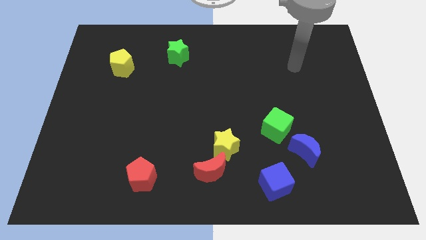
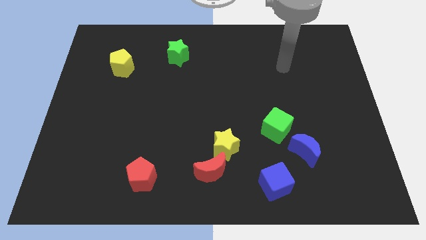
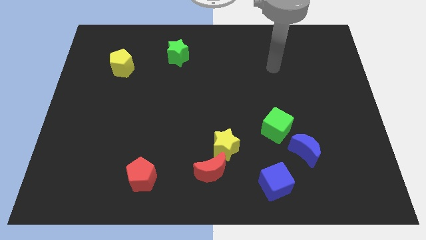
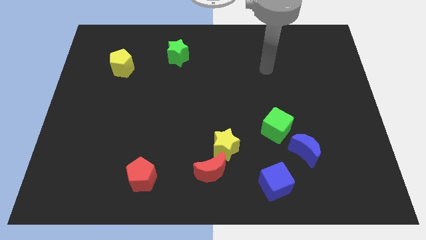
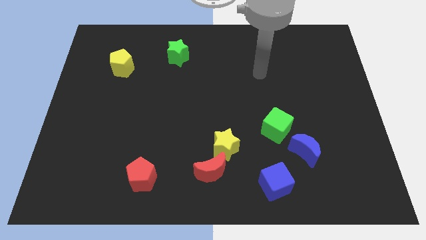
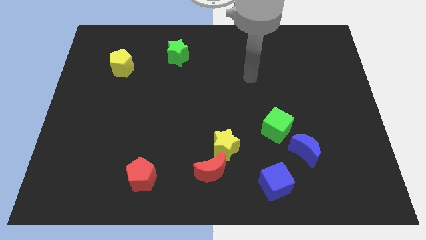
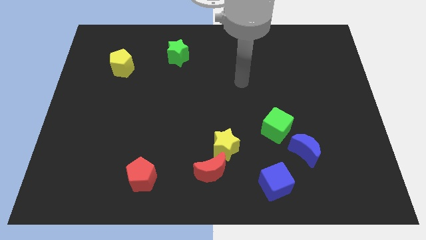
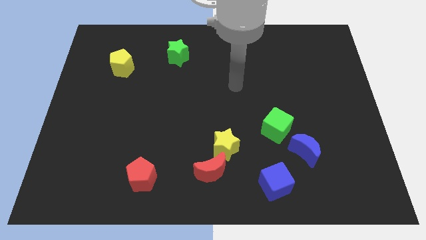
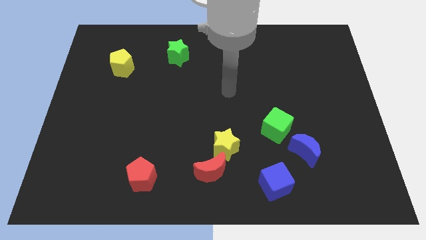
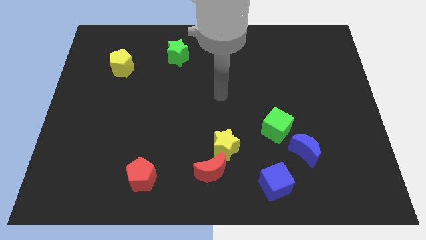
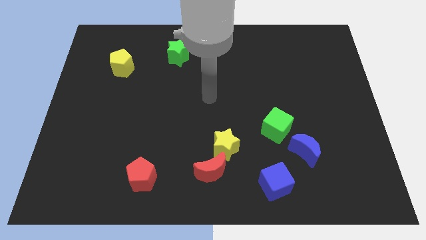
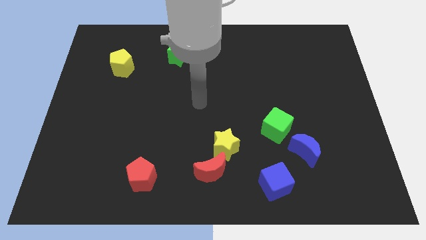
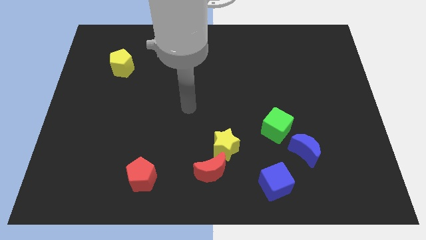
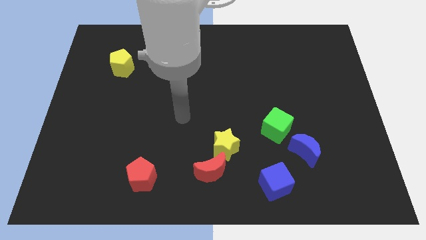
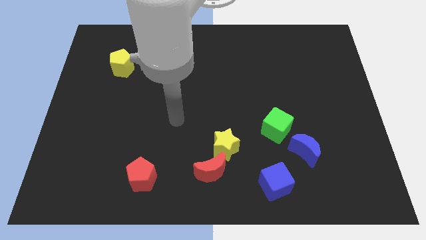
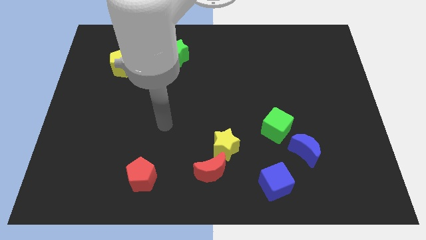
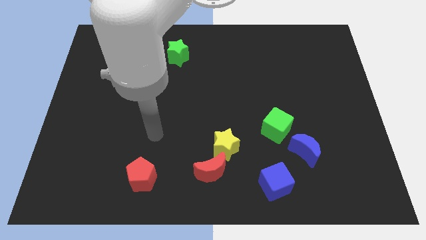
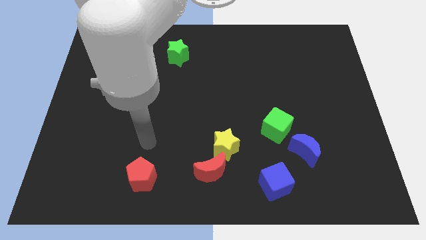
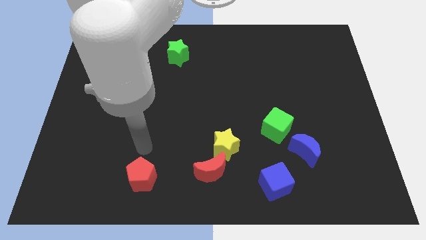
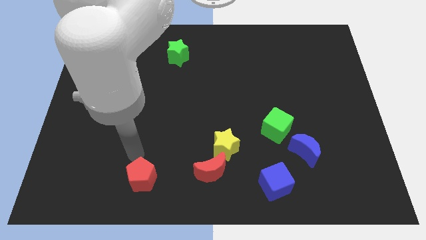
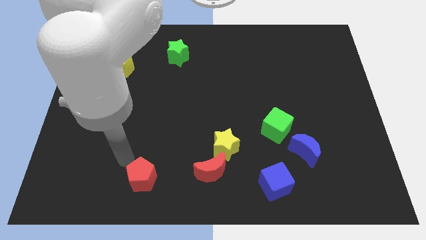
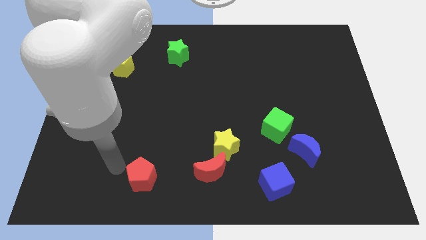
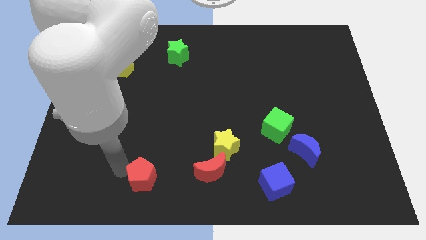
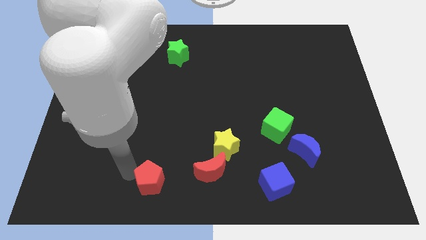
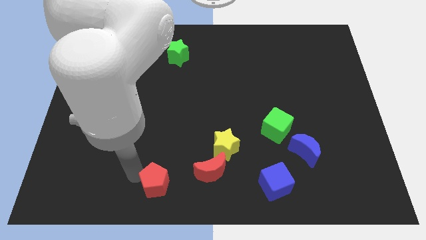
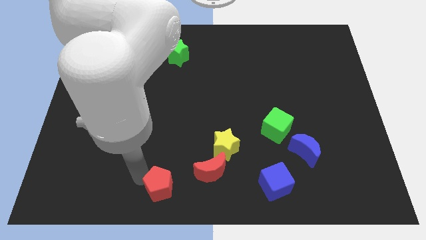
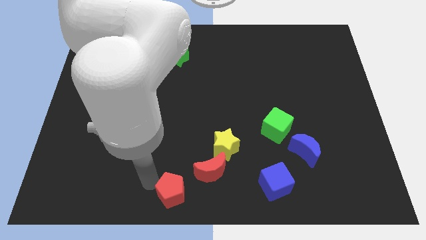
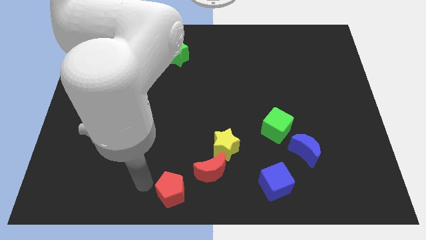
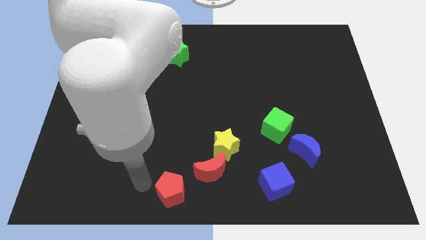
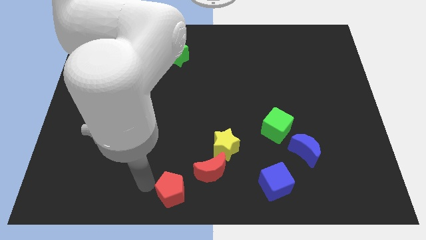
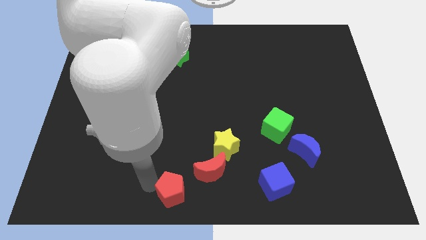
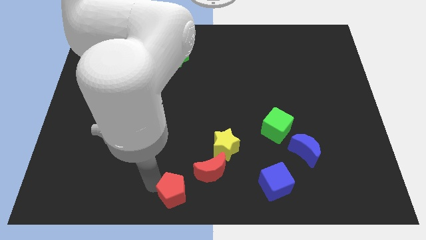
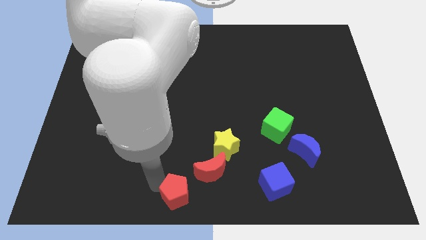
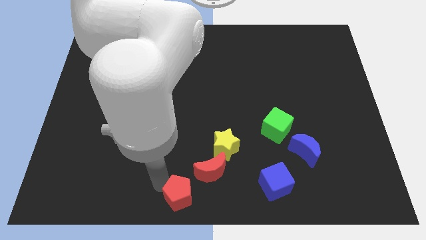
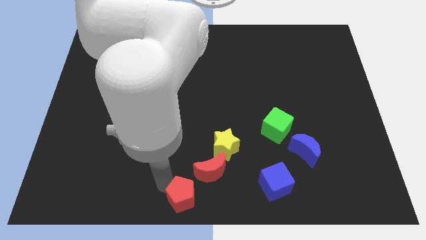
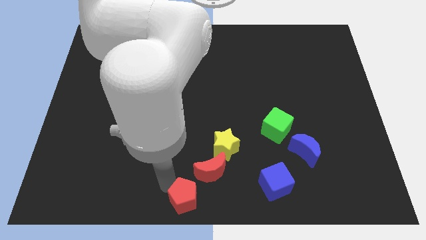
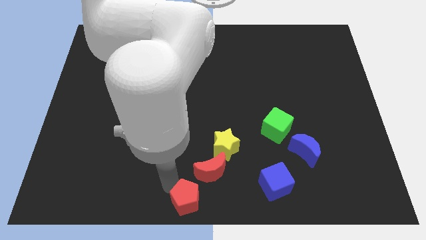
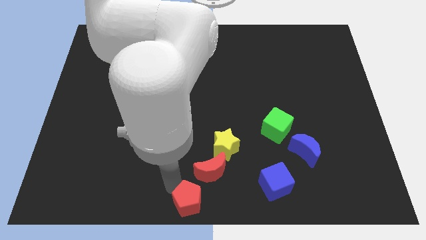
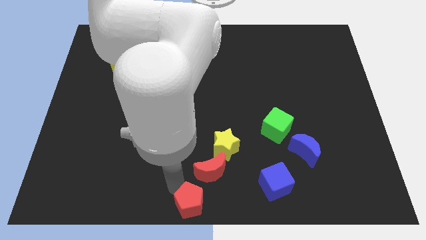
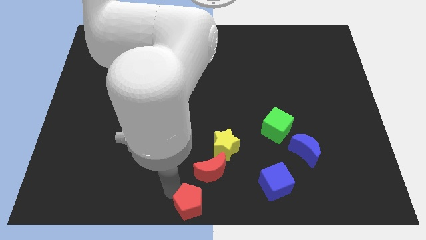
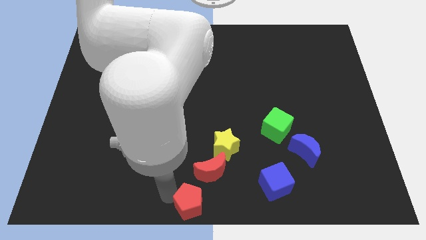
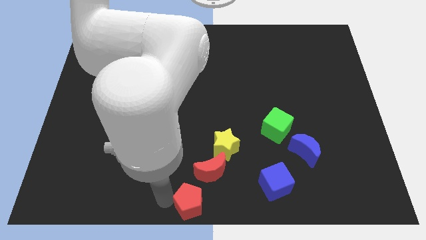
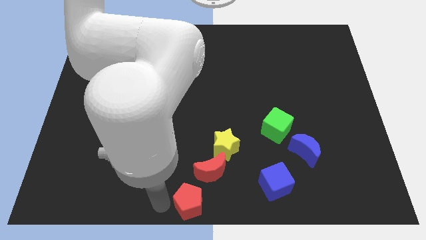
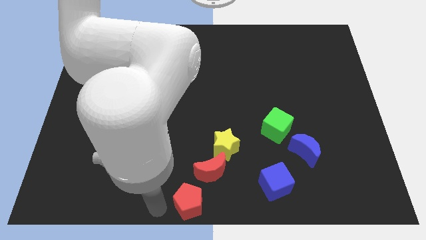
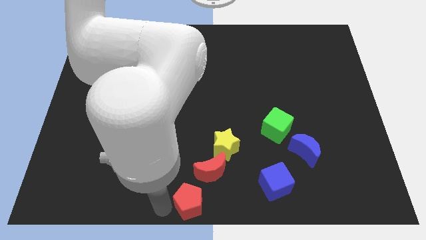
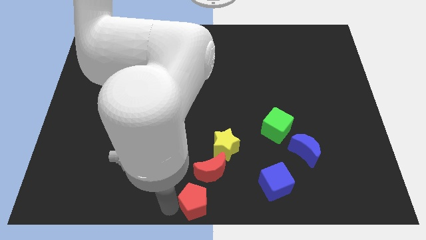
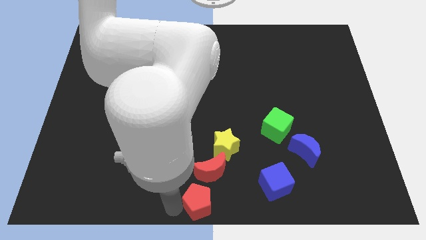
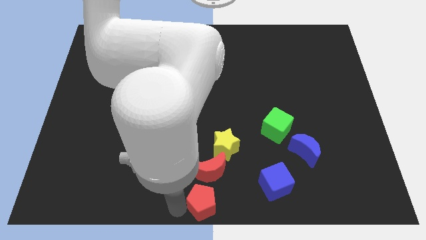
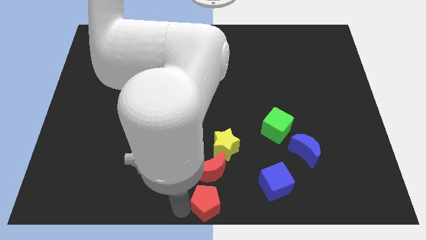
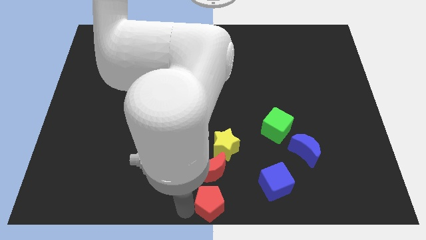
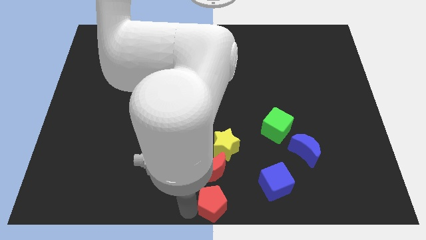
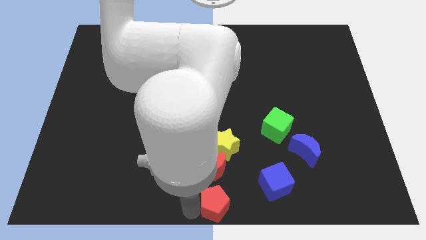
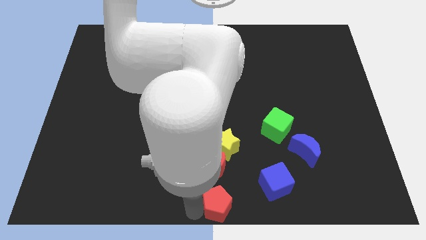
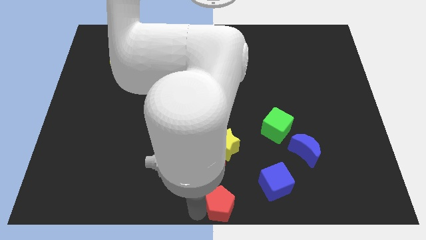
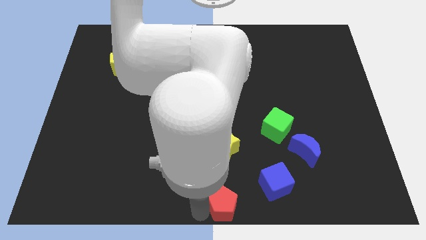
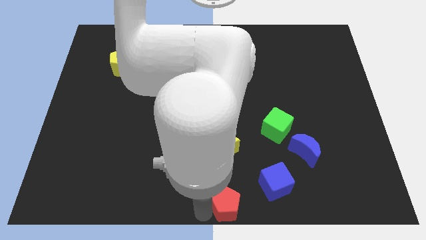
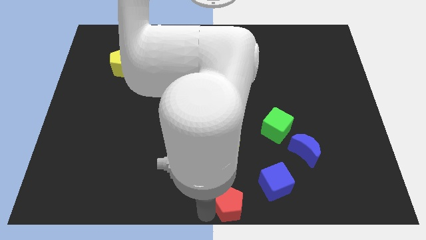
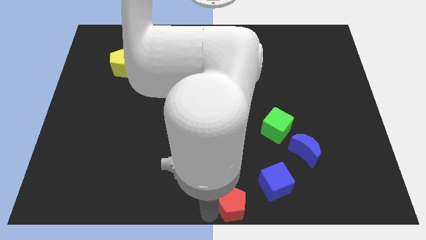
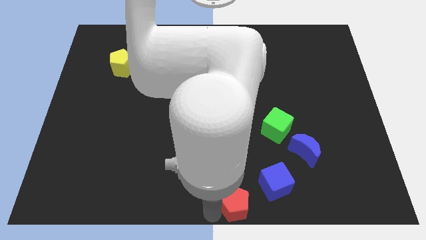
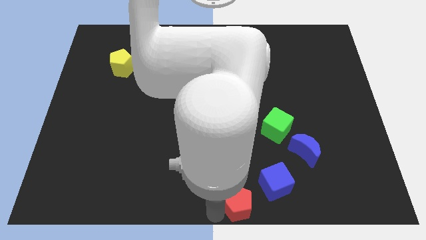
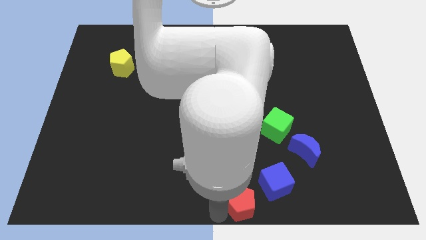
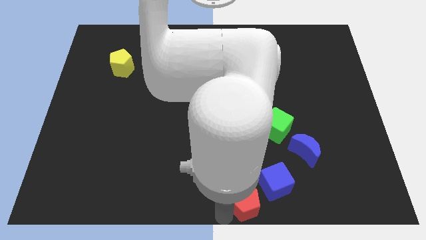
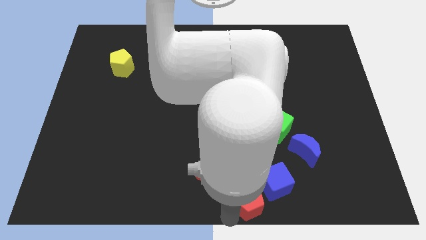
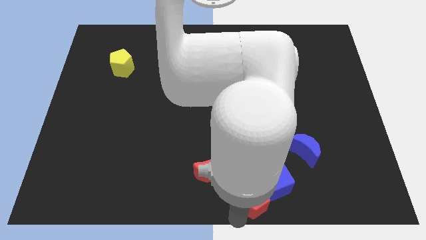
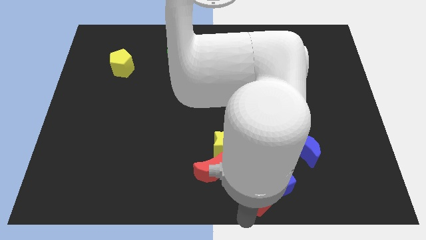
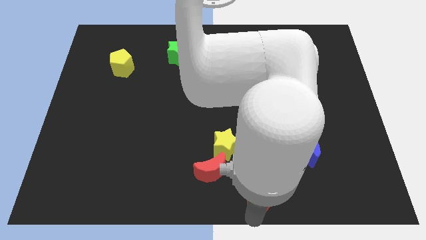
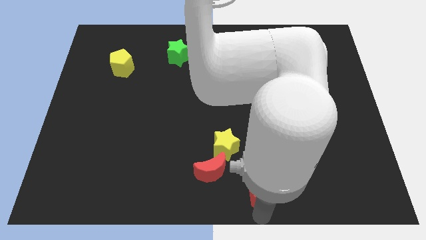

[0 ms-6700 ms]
slide the red pentagon to the bottom right side of the yellow star
